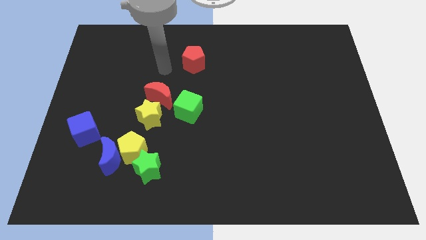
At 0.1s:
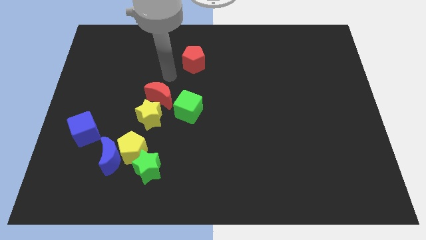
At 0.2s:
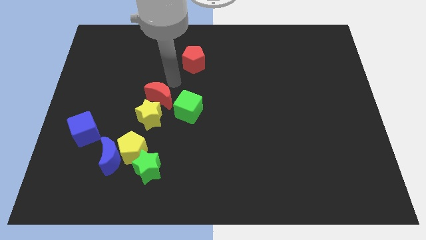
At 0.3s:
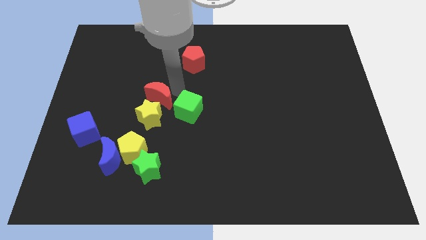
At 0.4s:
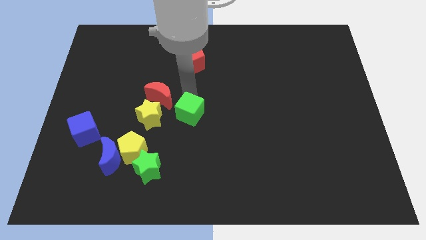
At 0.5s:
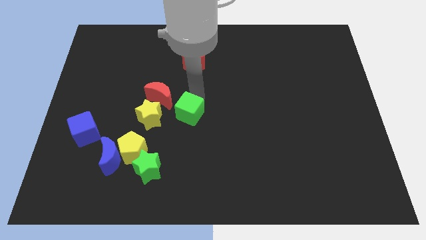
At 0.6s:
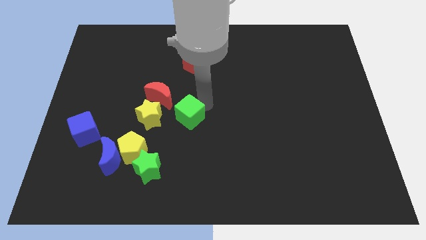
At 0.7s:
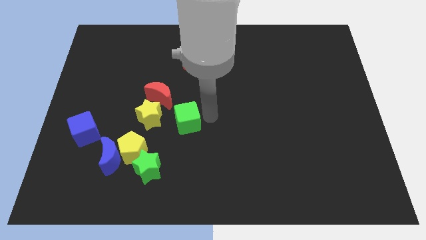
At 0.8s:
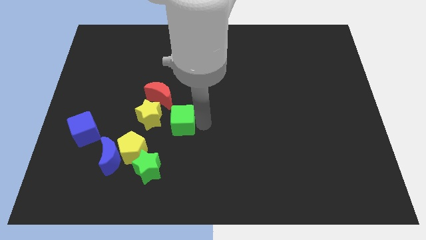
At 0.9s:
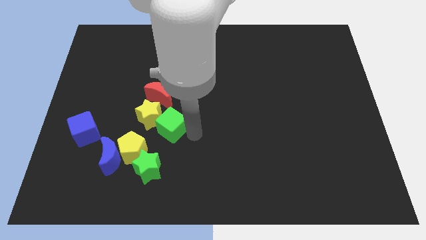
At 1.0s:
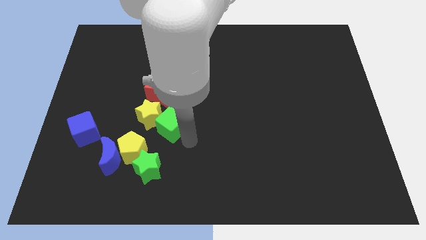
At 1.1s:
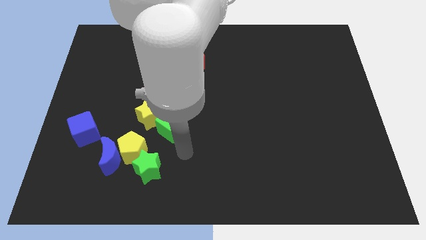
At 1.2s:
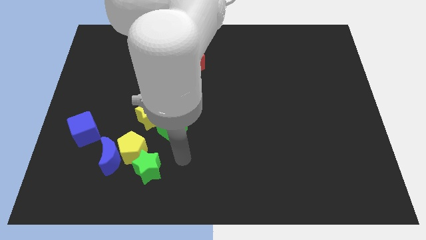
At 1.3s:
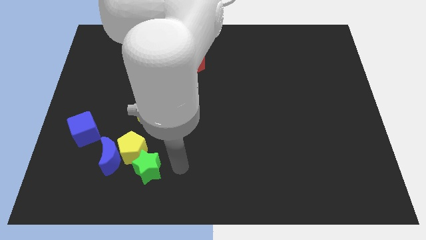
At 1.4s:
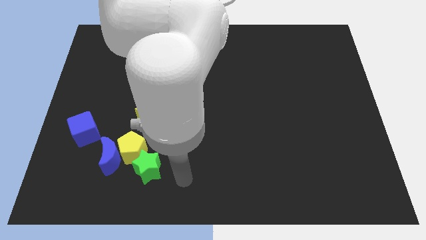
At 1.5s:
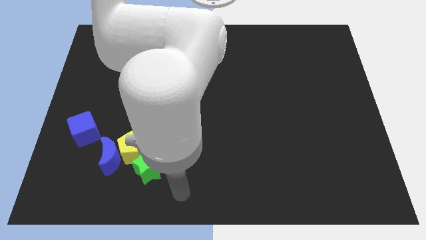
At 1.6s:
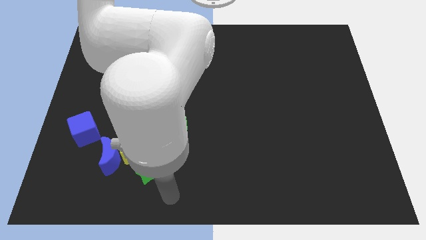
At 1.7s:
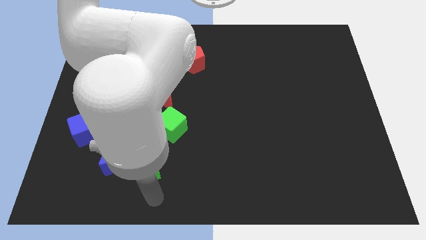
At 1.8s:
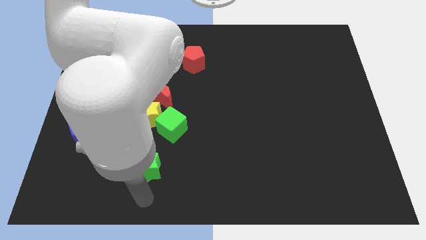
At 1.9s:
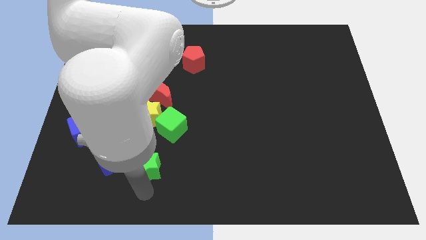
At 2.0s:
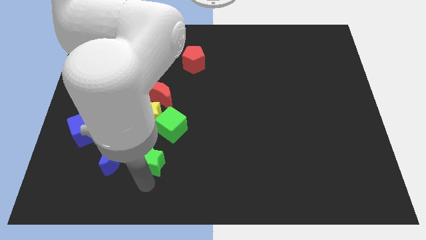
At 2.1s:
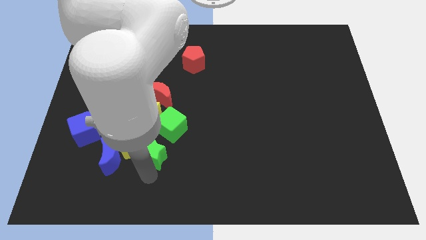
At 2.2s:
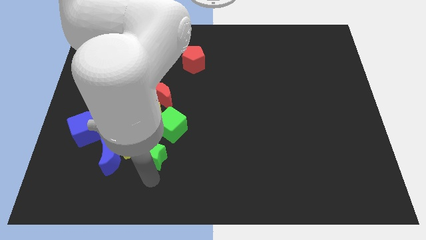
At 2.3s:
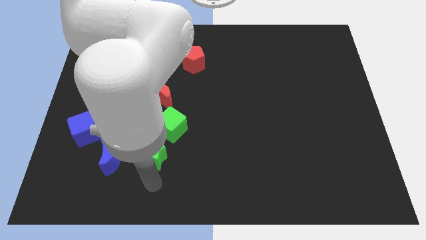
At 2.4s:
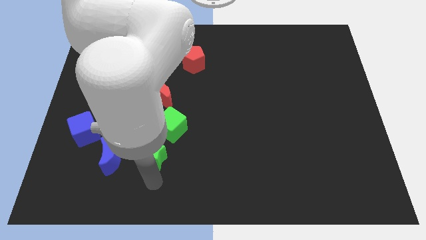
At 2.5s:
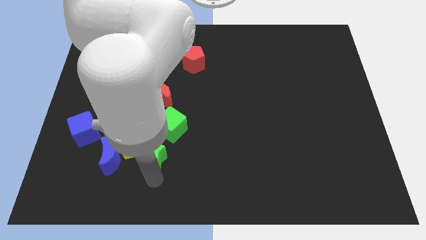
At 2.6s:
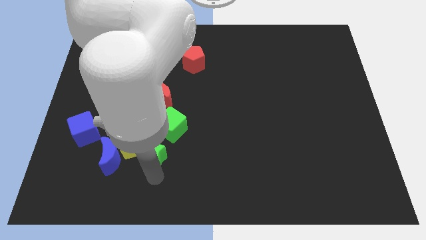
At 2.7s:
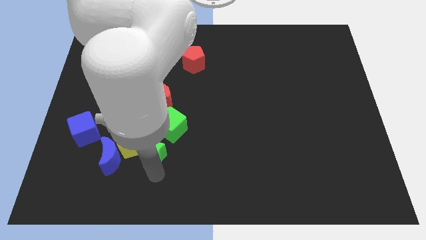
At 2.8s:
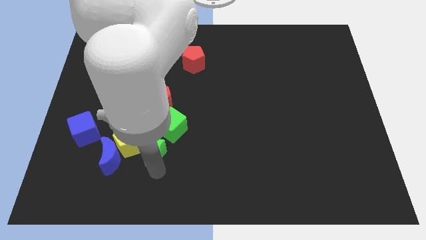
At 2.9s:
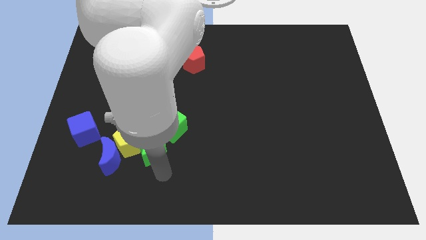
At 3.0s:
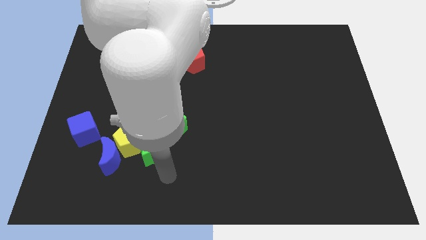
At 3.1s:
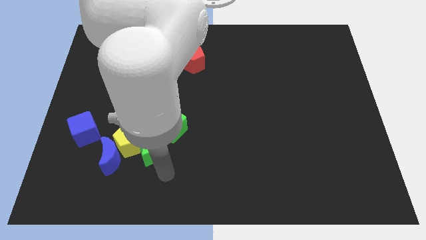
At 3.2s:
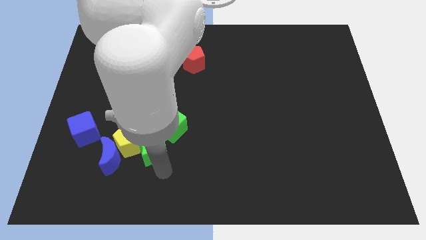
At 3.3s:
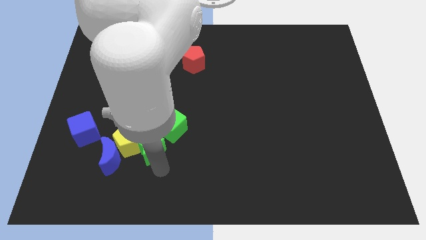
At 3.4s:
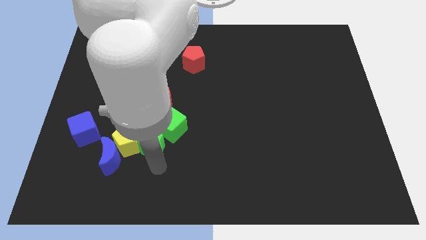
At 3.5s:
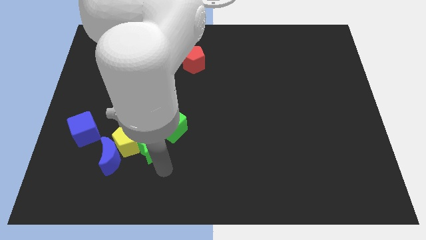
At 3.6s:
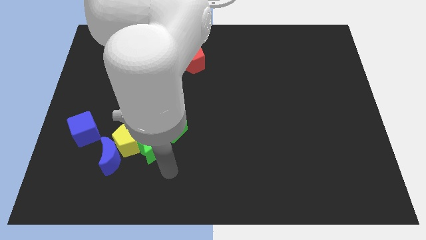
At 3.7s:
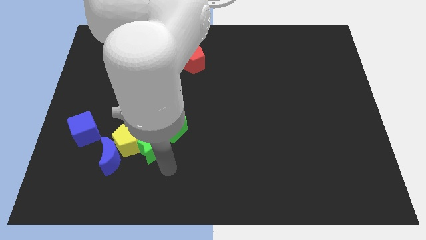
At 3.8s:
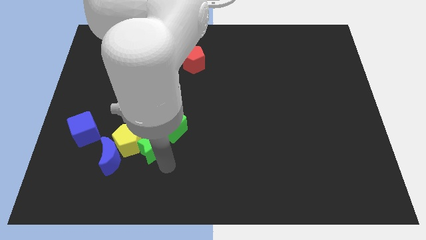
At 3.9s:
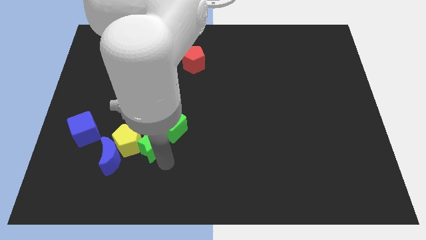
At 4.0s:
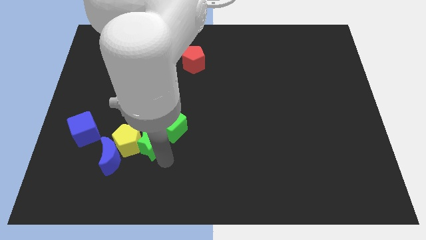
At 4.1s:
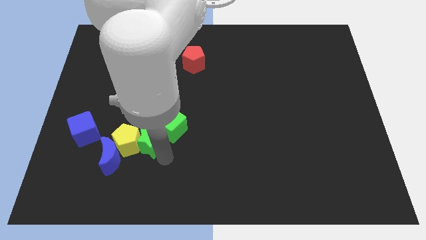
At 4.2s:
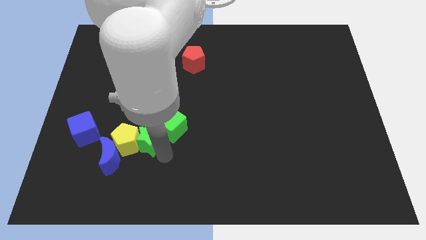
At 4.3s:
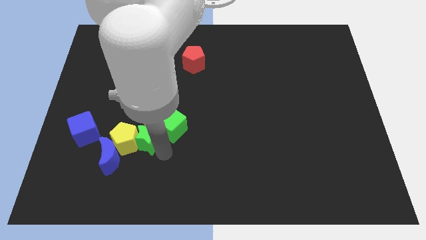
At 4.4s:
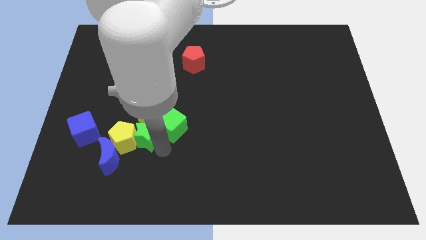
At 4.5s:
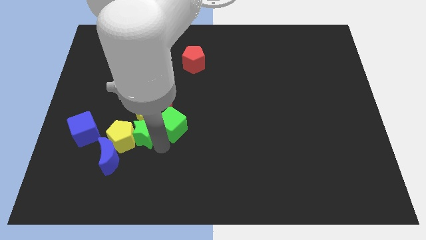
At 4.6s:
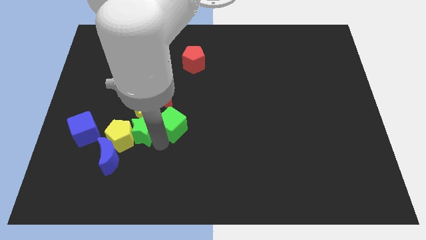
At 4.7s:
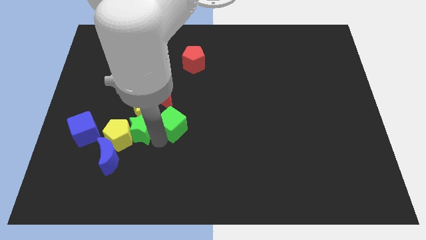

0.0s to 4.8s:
slightly push the green star upwards and then left

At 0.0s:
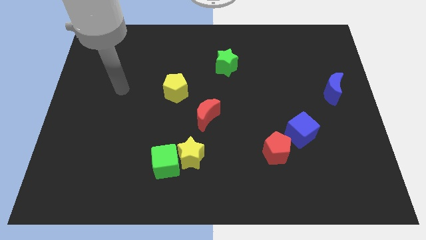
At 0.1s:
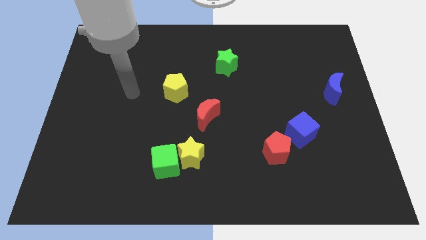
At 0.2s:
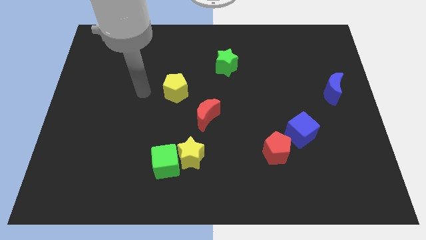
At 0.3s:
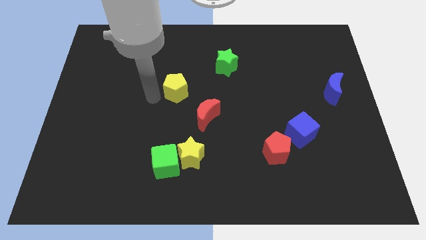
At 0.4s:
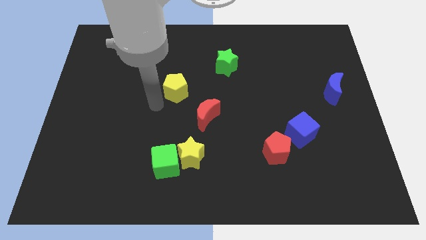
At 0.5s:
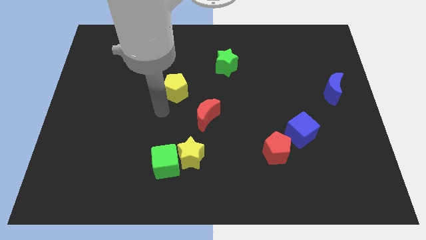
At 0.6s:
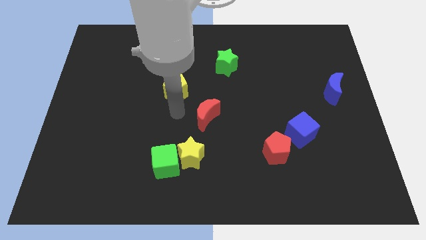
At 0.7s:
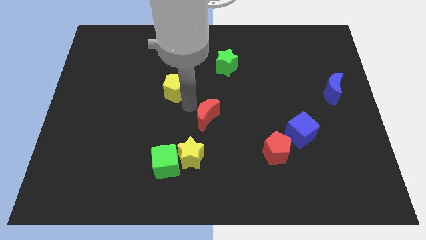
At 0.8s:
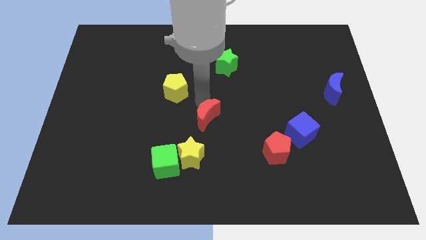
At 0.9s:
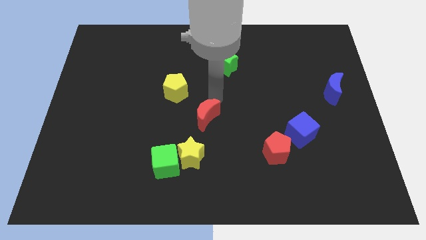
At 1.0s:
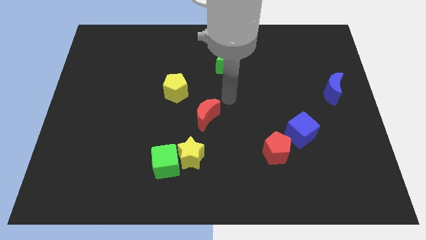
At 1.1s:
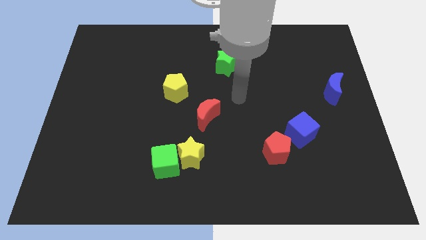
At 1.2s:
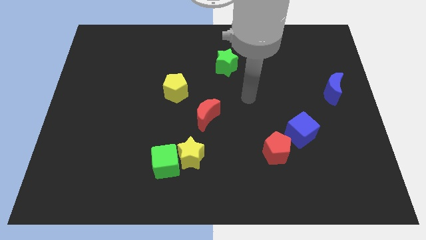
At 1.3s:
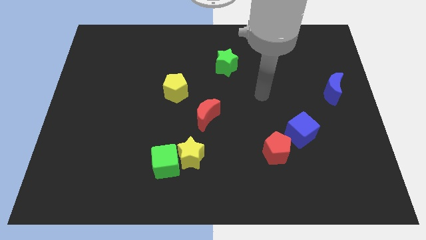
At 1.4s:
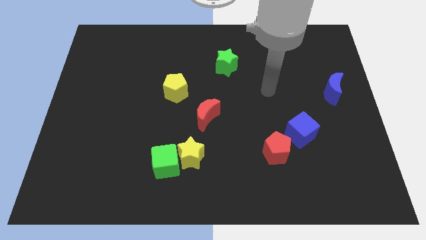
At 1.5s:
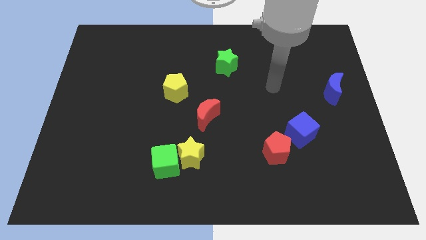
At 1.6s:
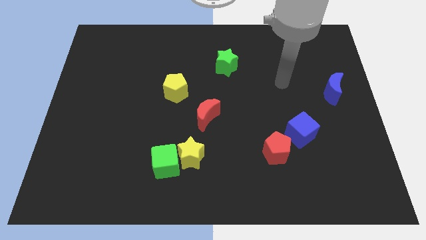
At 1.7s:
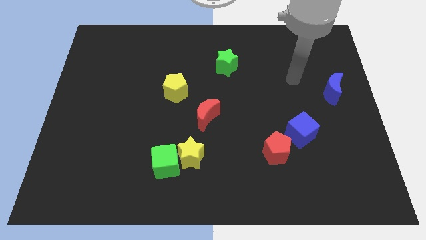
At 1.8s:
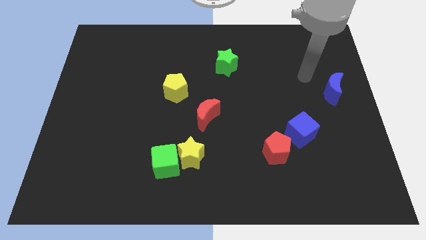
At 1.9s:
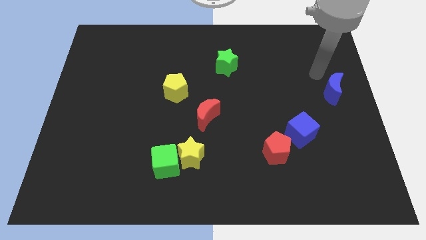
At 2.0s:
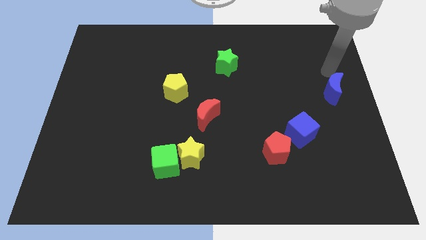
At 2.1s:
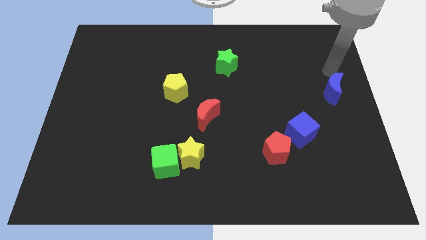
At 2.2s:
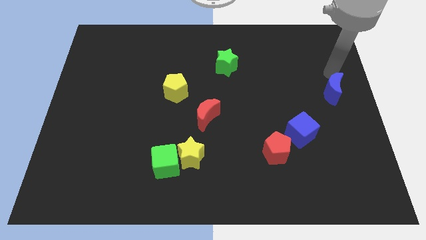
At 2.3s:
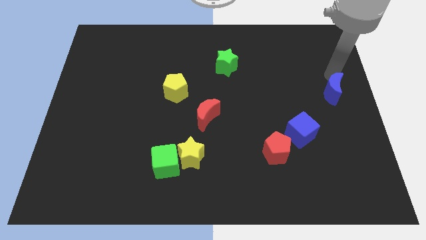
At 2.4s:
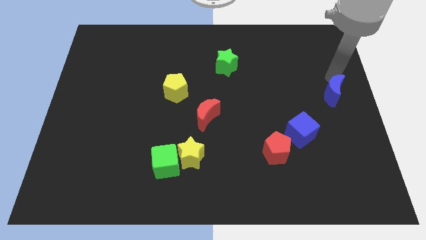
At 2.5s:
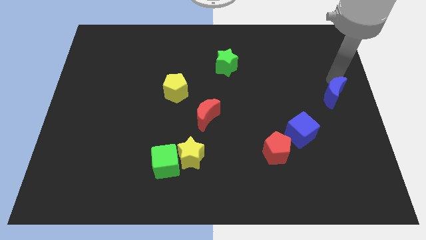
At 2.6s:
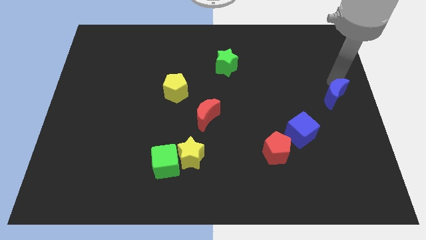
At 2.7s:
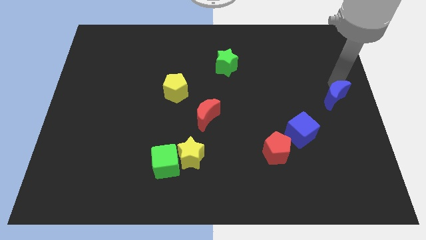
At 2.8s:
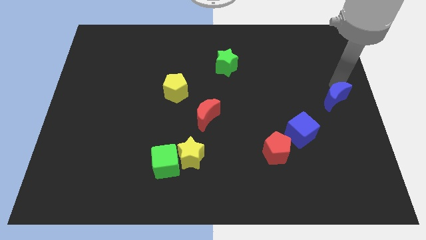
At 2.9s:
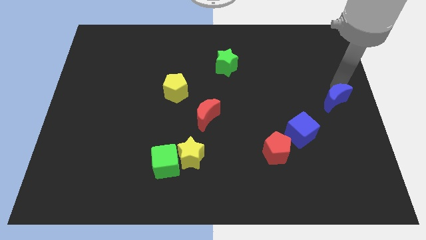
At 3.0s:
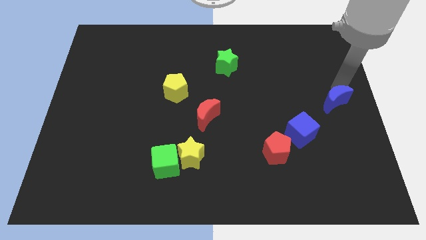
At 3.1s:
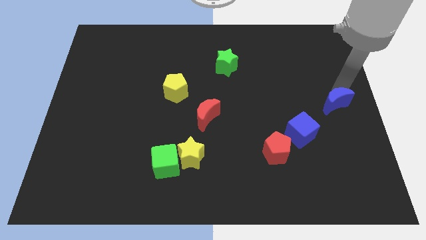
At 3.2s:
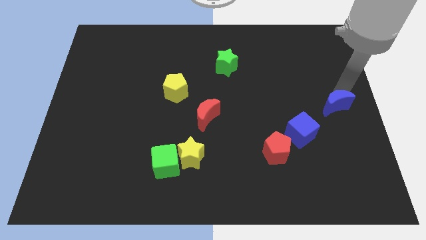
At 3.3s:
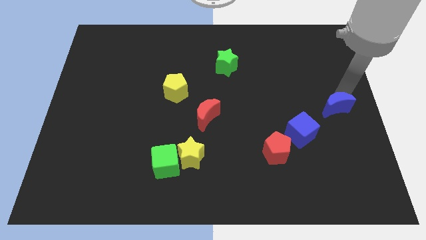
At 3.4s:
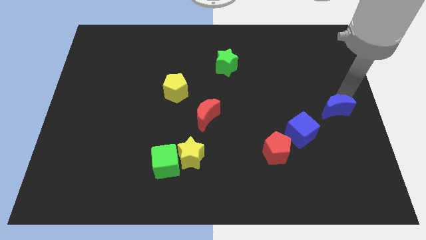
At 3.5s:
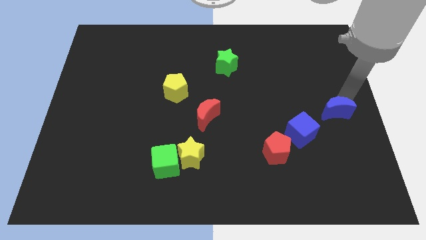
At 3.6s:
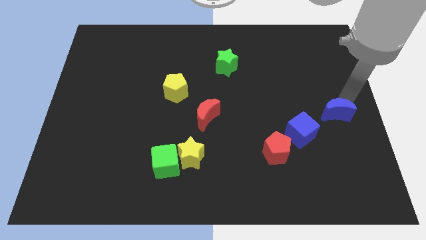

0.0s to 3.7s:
push the blue moon somewhat down
